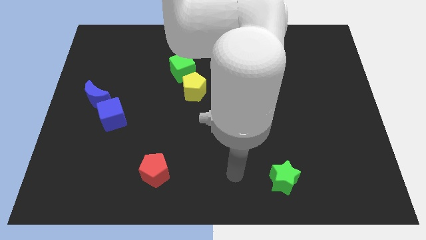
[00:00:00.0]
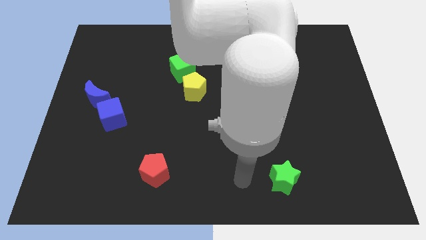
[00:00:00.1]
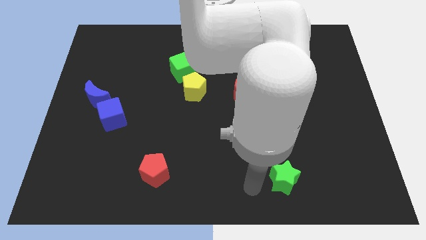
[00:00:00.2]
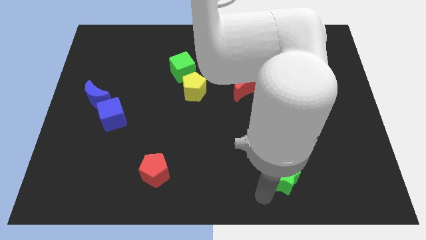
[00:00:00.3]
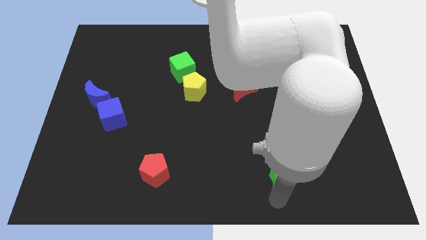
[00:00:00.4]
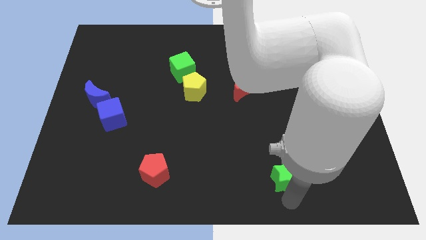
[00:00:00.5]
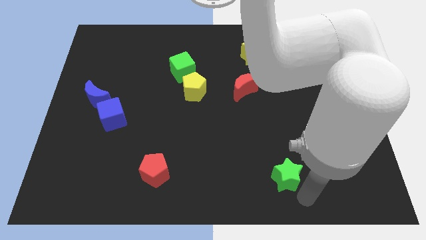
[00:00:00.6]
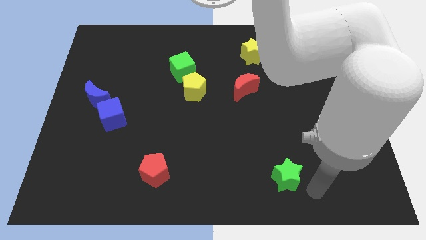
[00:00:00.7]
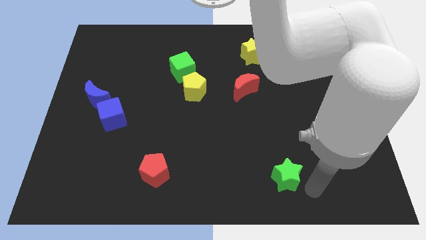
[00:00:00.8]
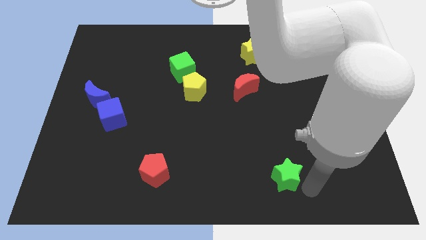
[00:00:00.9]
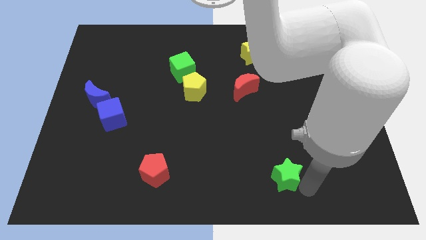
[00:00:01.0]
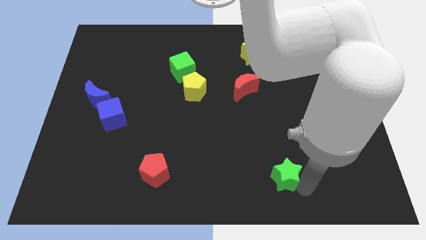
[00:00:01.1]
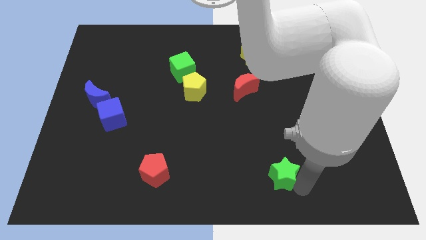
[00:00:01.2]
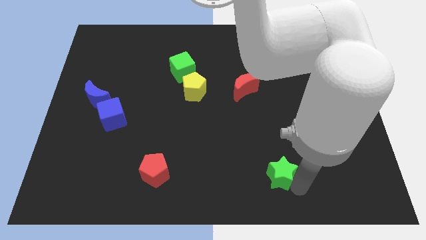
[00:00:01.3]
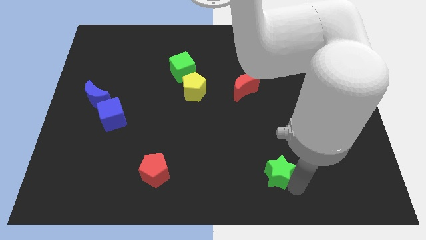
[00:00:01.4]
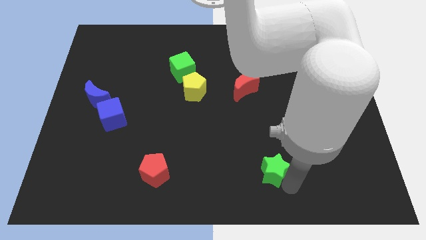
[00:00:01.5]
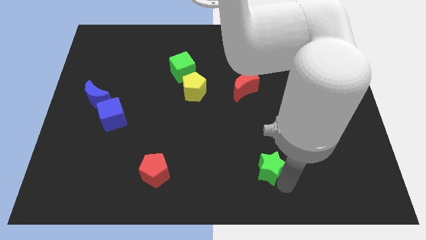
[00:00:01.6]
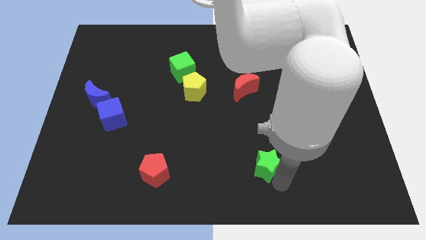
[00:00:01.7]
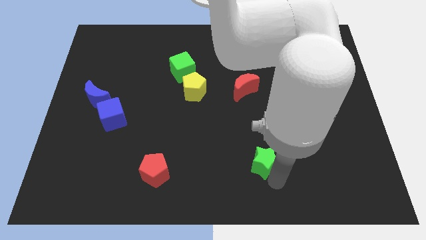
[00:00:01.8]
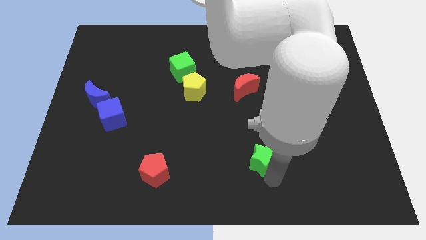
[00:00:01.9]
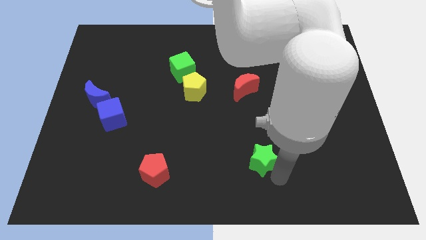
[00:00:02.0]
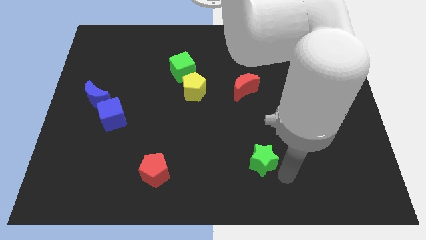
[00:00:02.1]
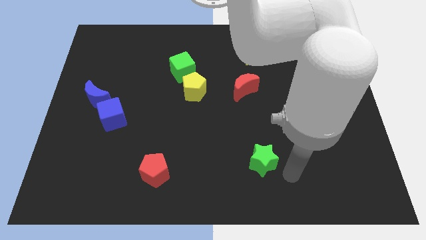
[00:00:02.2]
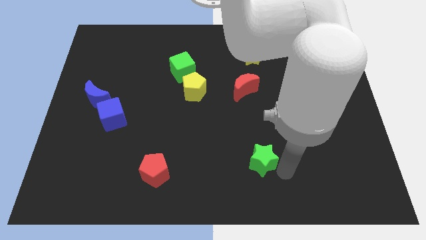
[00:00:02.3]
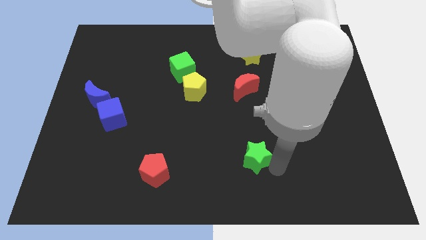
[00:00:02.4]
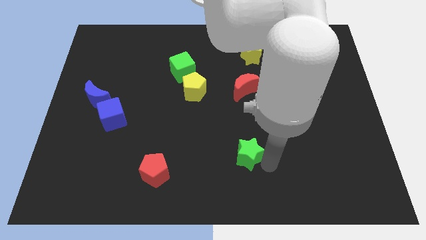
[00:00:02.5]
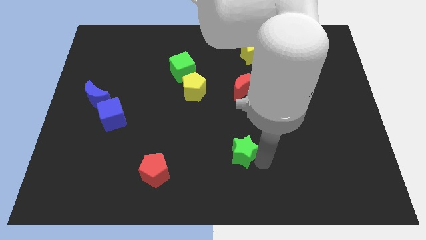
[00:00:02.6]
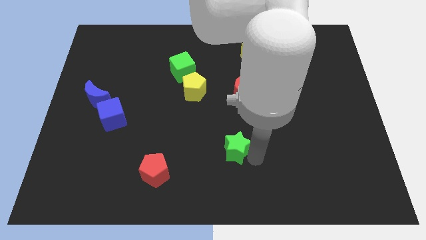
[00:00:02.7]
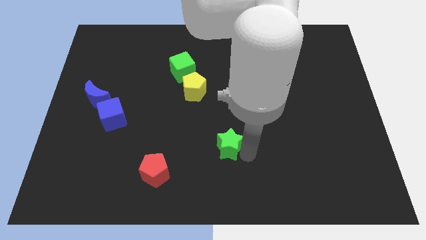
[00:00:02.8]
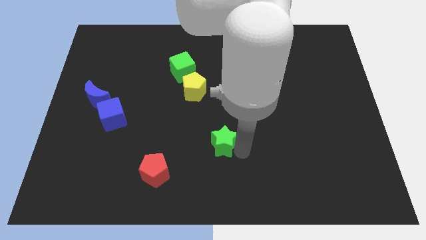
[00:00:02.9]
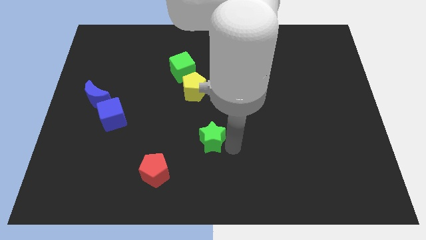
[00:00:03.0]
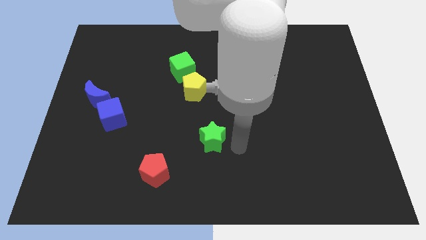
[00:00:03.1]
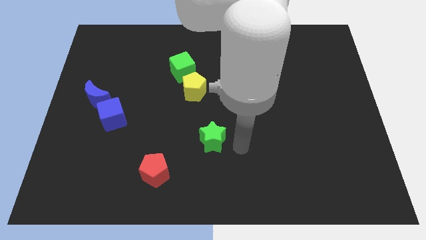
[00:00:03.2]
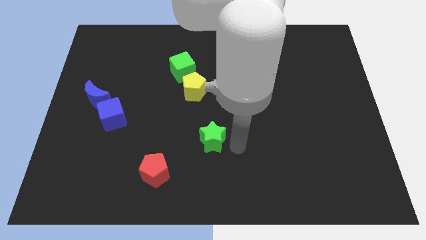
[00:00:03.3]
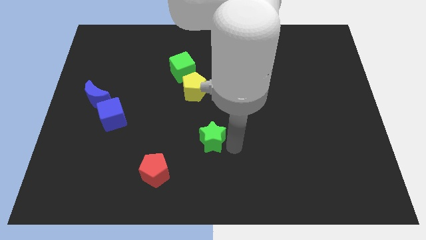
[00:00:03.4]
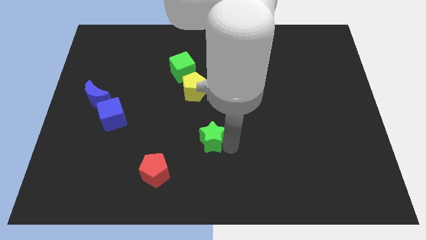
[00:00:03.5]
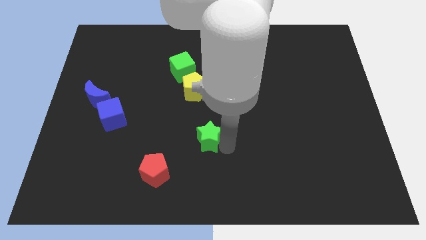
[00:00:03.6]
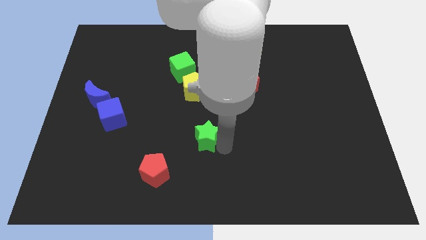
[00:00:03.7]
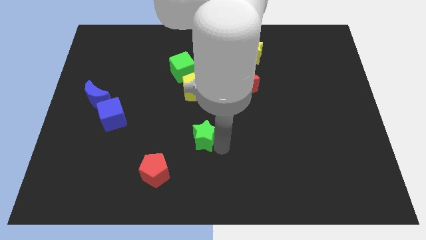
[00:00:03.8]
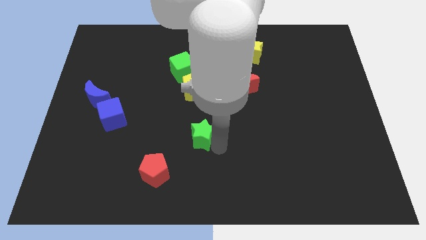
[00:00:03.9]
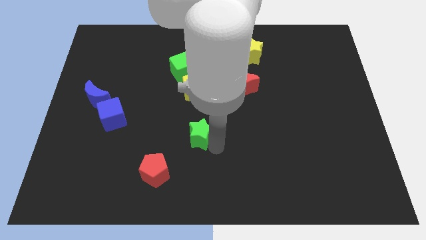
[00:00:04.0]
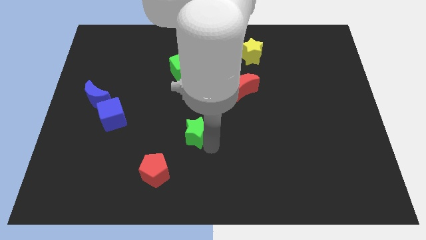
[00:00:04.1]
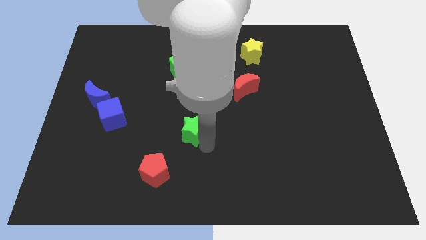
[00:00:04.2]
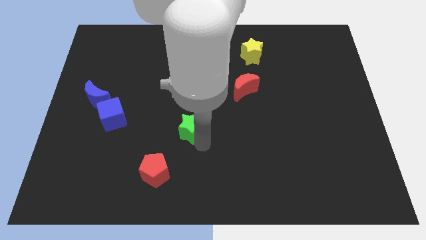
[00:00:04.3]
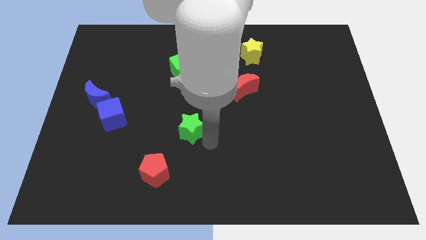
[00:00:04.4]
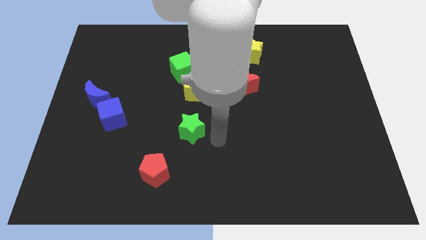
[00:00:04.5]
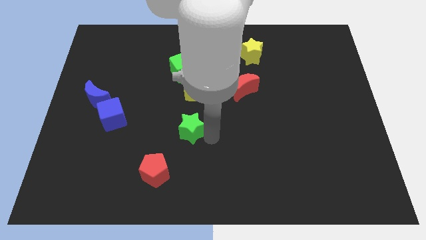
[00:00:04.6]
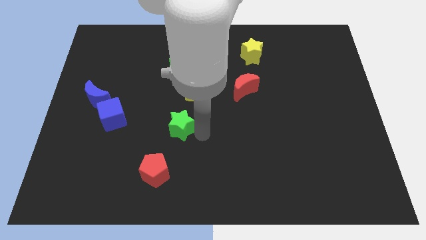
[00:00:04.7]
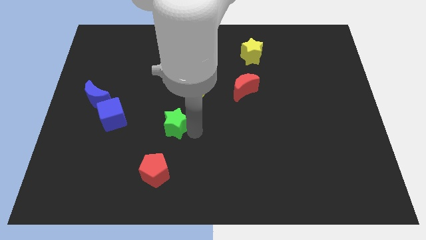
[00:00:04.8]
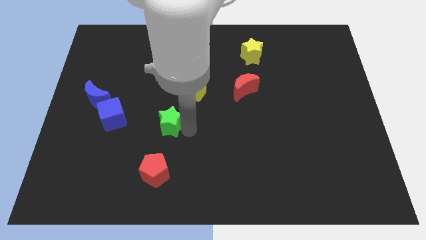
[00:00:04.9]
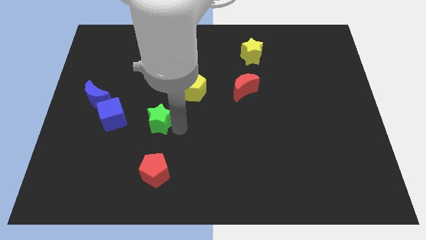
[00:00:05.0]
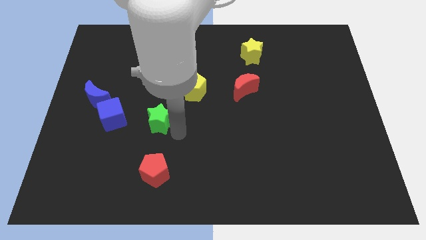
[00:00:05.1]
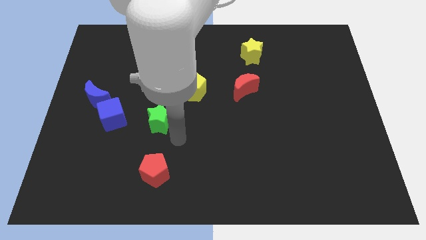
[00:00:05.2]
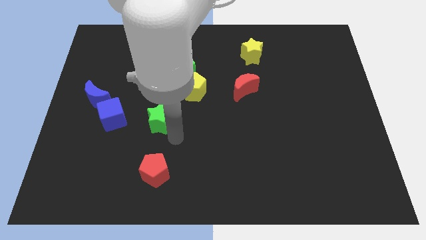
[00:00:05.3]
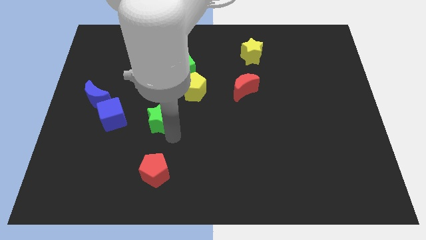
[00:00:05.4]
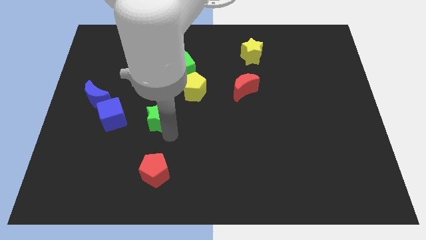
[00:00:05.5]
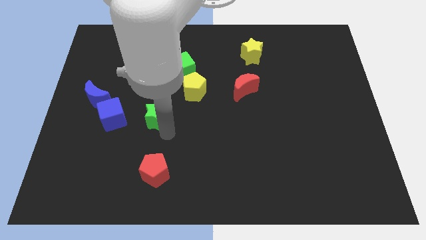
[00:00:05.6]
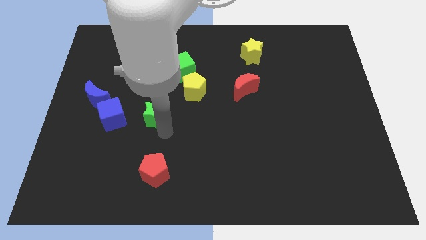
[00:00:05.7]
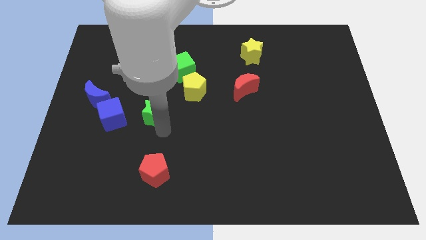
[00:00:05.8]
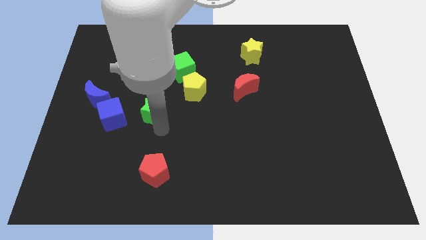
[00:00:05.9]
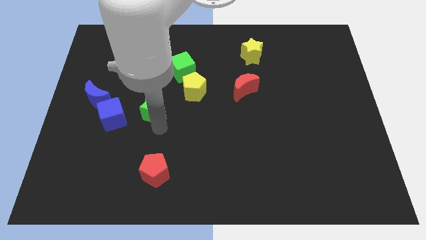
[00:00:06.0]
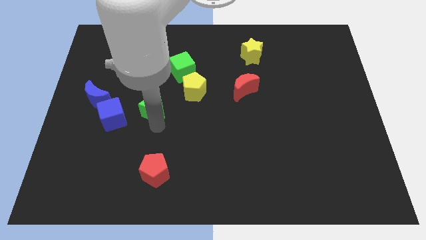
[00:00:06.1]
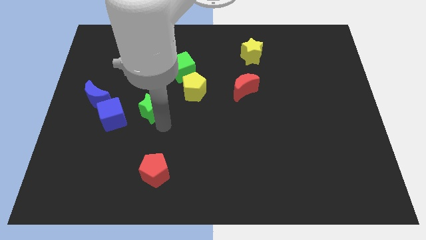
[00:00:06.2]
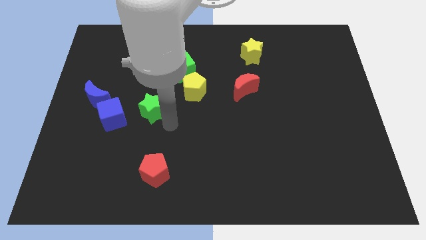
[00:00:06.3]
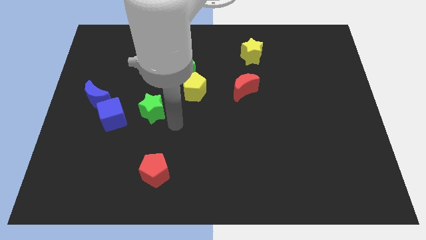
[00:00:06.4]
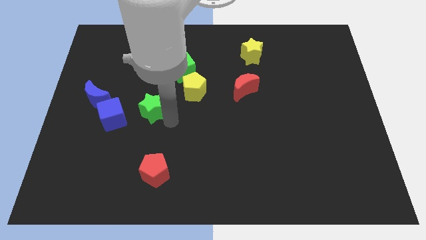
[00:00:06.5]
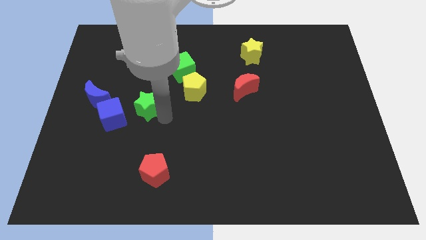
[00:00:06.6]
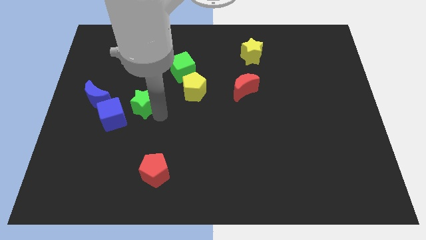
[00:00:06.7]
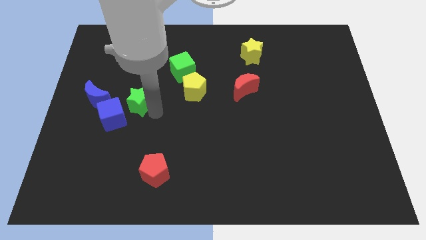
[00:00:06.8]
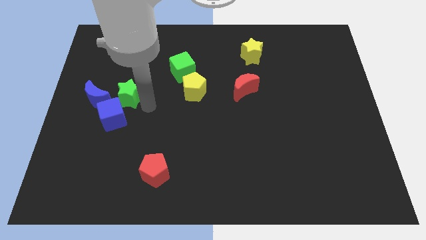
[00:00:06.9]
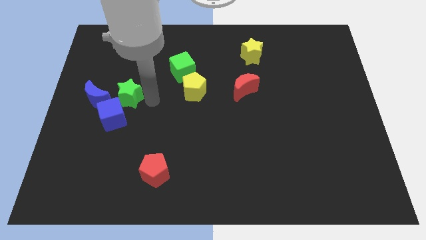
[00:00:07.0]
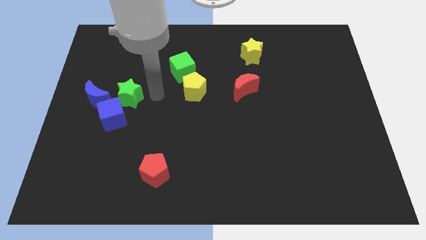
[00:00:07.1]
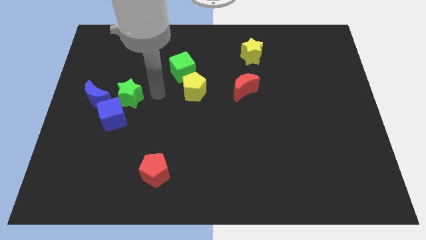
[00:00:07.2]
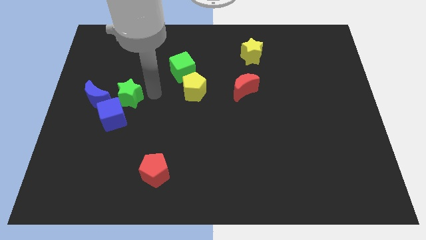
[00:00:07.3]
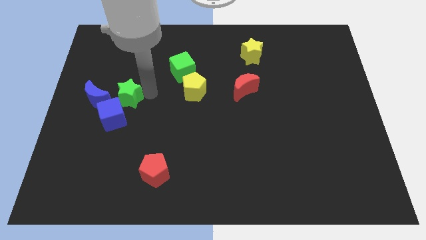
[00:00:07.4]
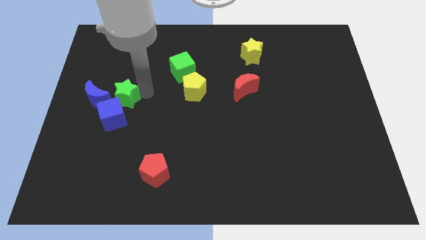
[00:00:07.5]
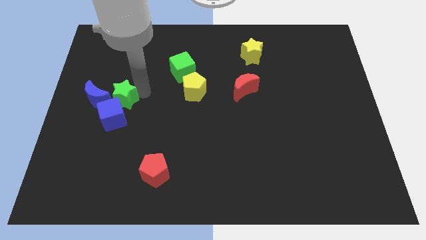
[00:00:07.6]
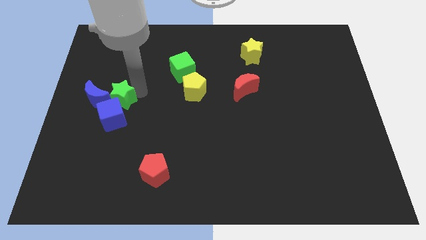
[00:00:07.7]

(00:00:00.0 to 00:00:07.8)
put the green star next to the blue moon
